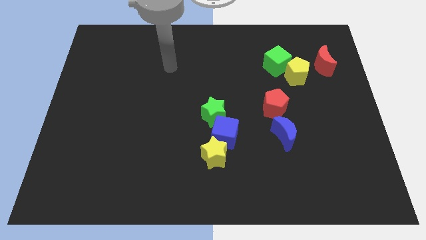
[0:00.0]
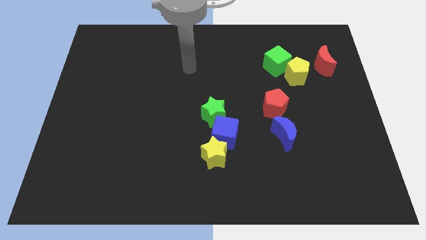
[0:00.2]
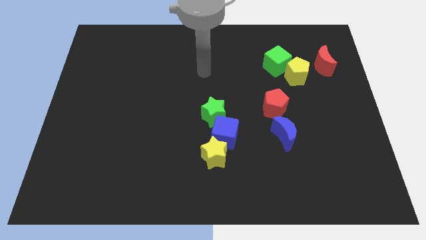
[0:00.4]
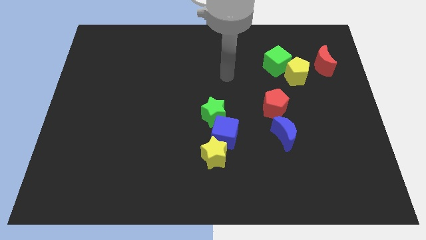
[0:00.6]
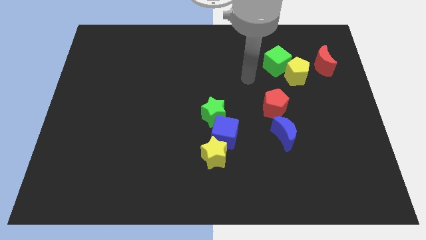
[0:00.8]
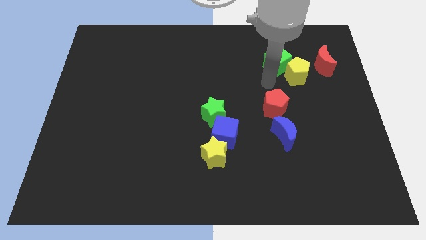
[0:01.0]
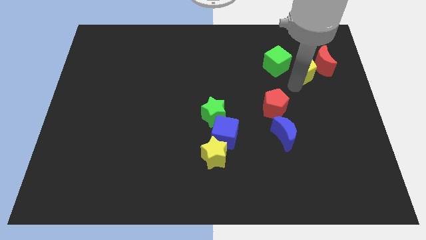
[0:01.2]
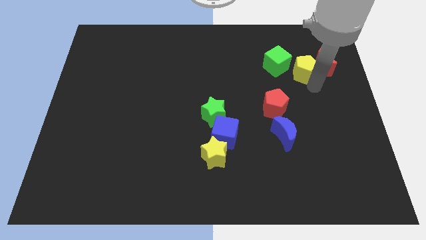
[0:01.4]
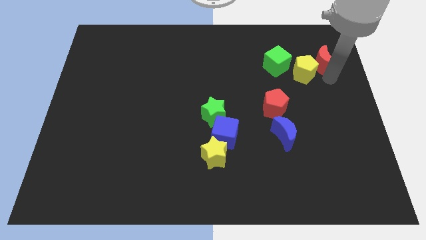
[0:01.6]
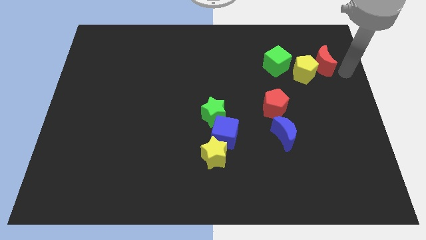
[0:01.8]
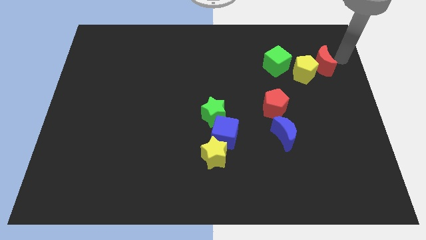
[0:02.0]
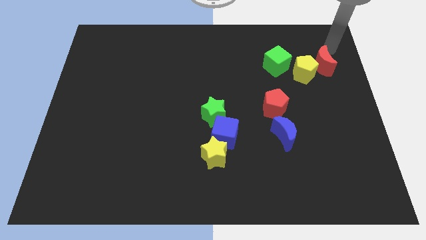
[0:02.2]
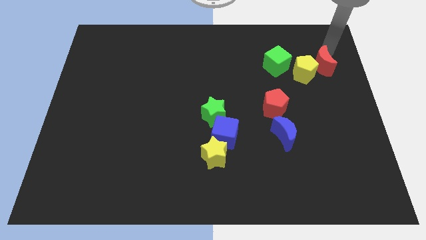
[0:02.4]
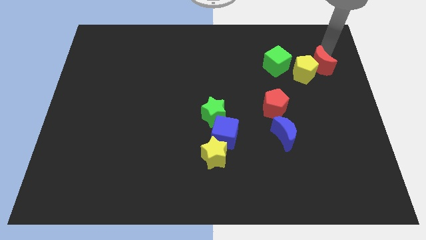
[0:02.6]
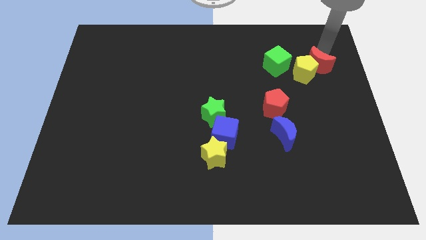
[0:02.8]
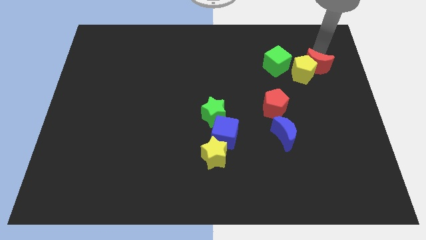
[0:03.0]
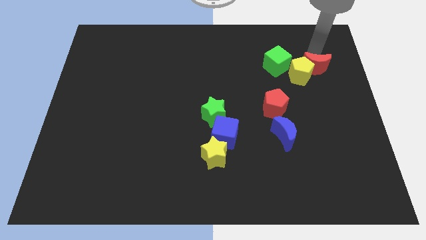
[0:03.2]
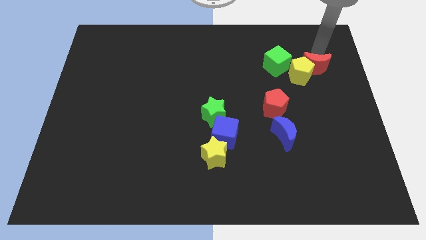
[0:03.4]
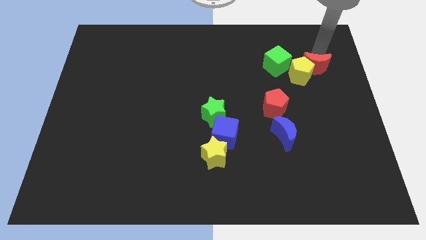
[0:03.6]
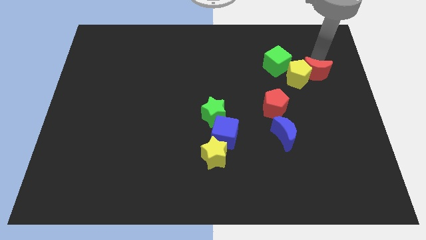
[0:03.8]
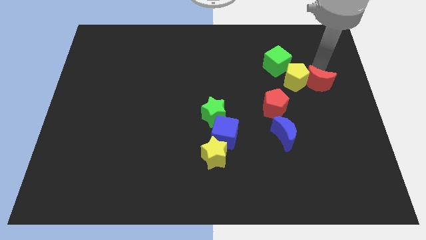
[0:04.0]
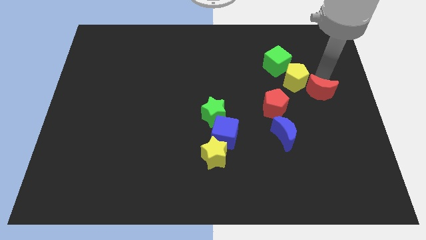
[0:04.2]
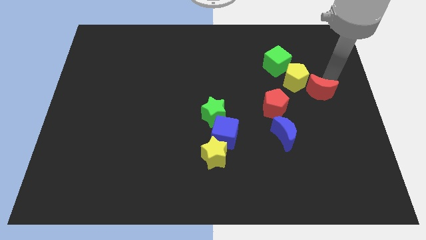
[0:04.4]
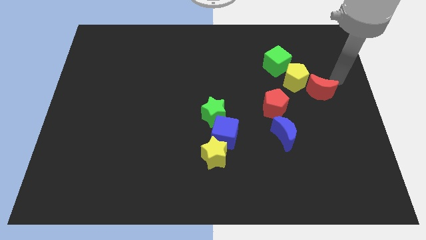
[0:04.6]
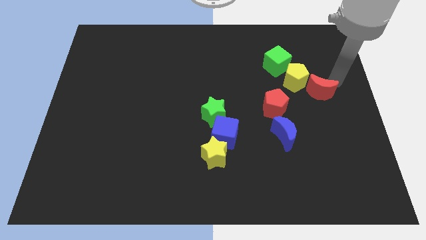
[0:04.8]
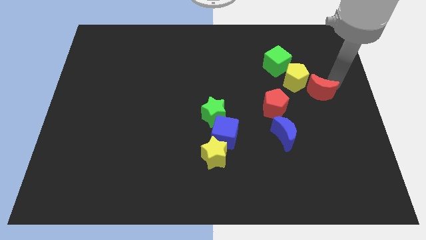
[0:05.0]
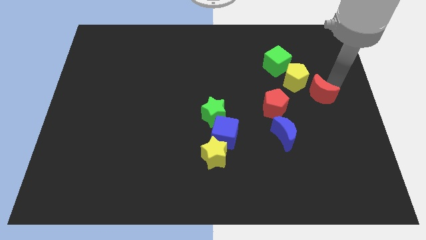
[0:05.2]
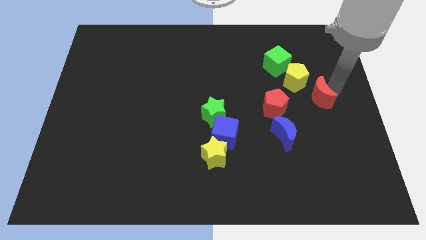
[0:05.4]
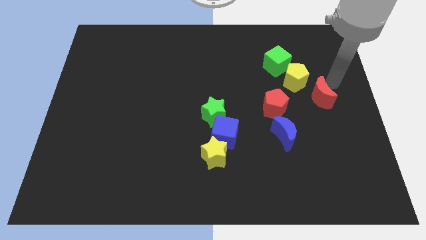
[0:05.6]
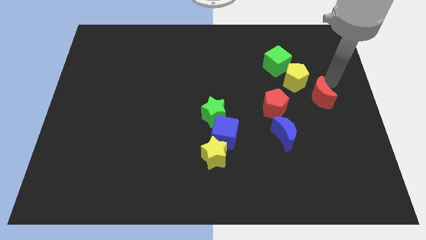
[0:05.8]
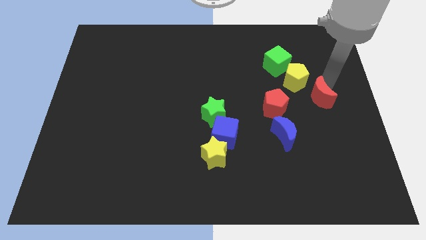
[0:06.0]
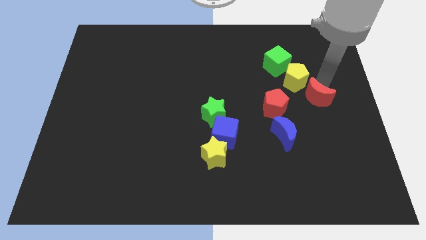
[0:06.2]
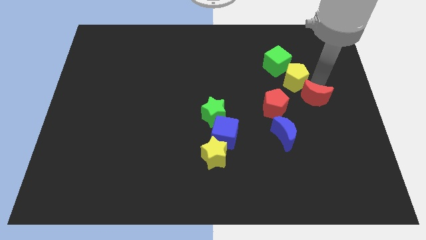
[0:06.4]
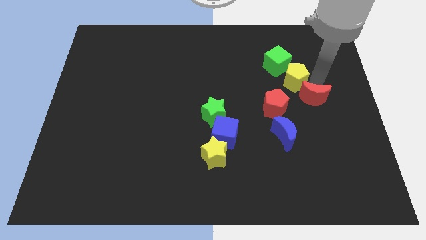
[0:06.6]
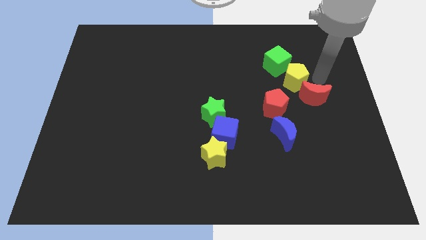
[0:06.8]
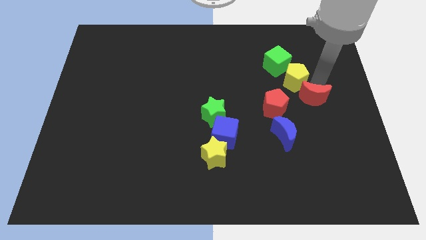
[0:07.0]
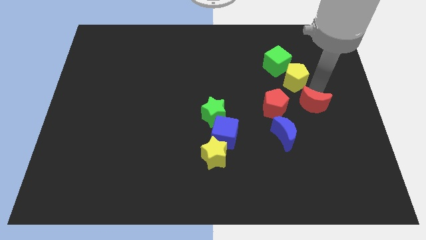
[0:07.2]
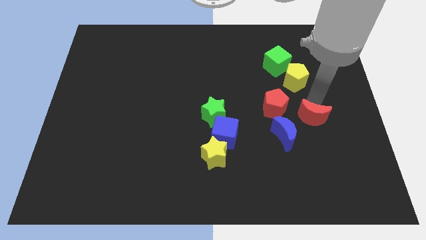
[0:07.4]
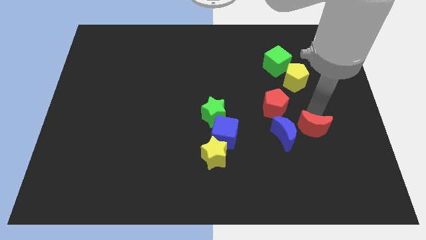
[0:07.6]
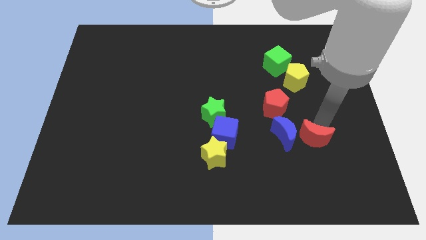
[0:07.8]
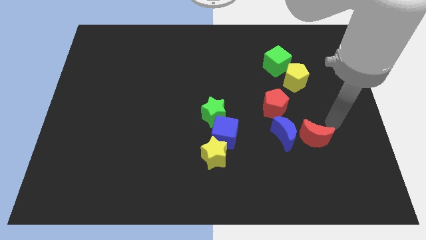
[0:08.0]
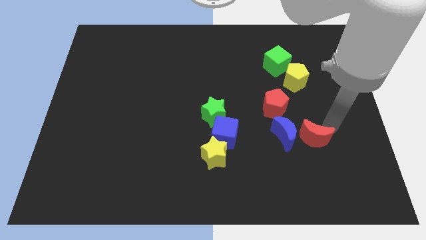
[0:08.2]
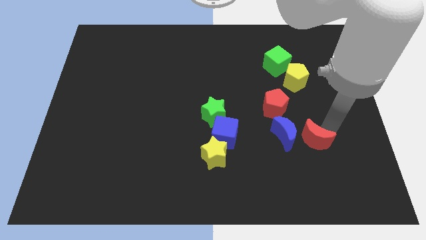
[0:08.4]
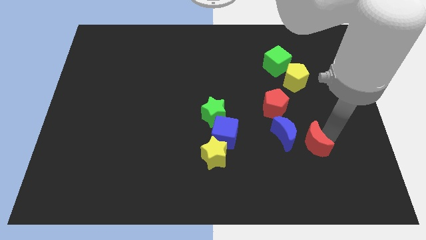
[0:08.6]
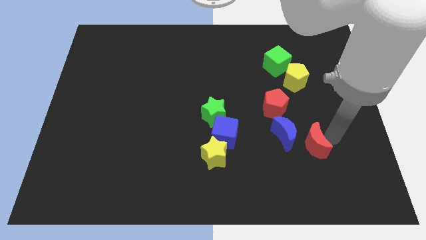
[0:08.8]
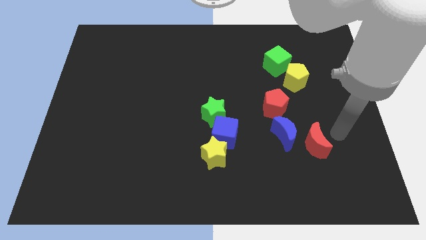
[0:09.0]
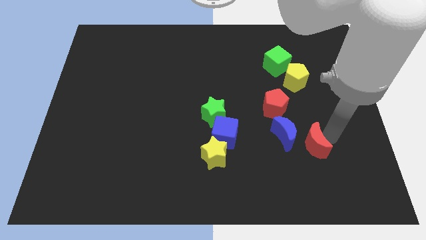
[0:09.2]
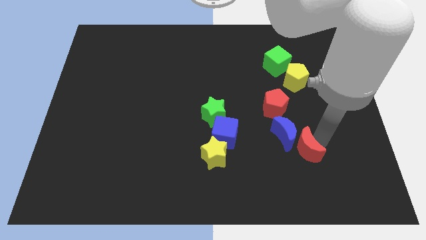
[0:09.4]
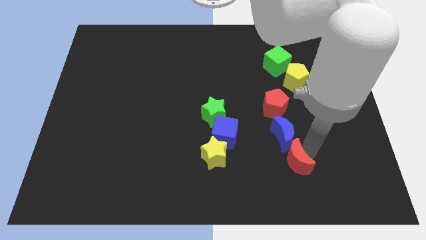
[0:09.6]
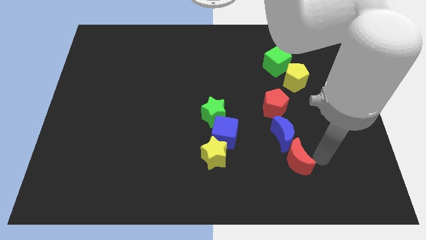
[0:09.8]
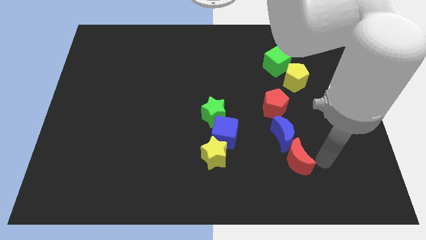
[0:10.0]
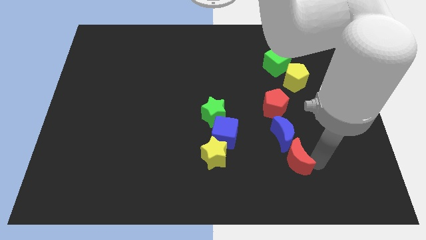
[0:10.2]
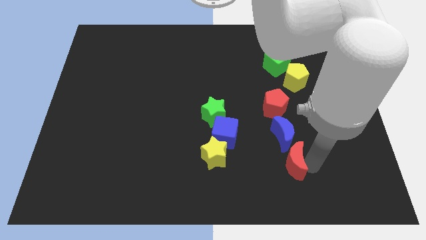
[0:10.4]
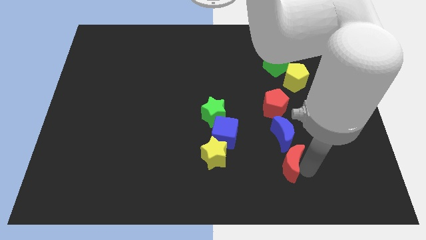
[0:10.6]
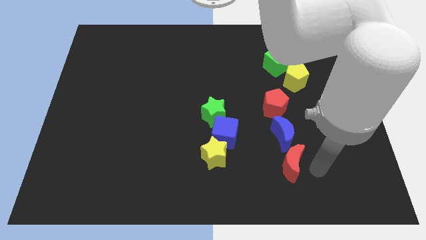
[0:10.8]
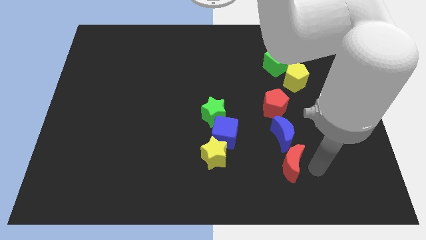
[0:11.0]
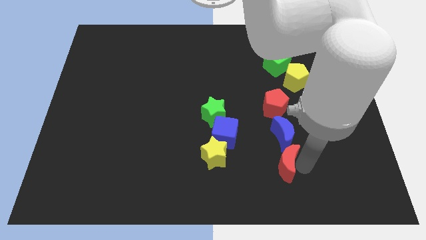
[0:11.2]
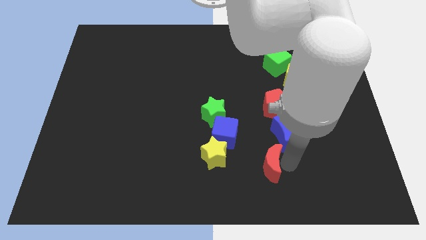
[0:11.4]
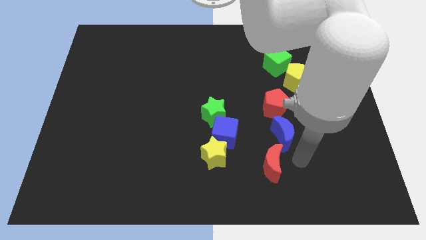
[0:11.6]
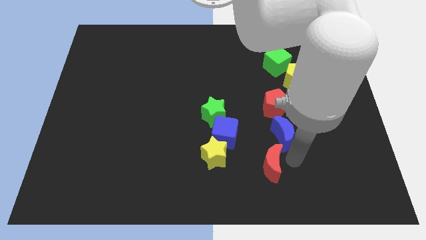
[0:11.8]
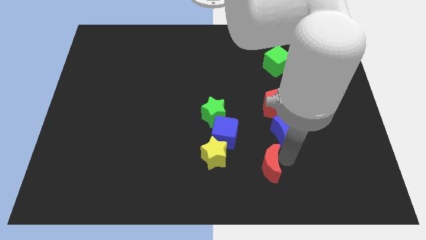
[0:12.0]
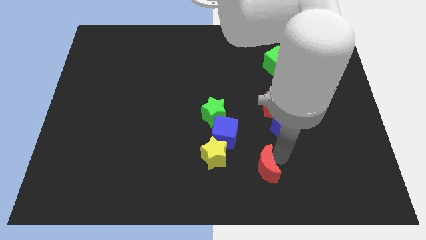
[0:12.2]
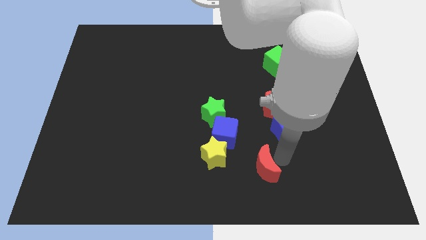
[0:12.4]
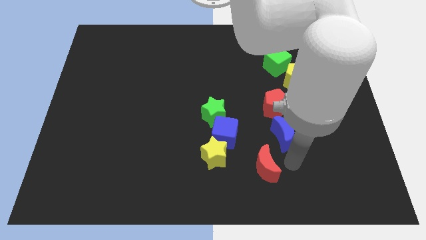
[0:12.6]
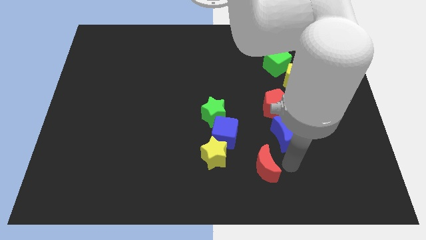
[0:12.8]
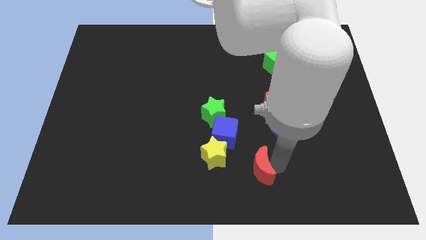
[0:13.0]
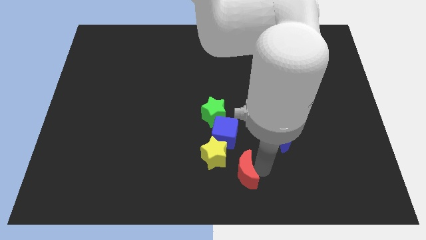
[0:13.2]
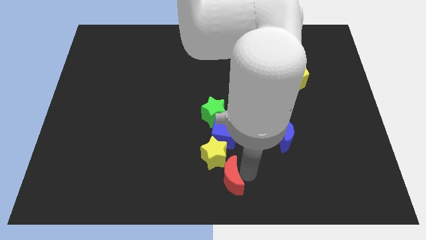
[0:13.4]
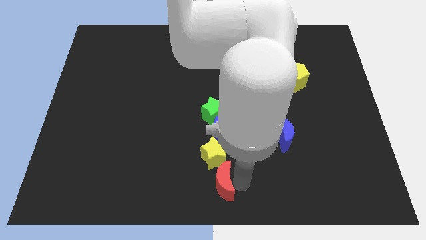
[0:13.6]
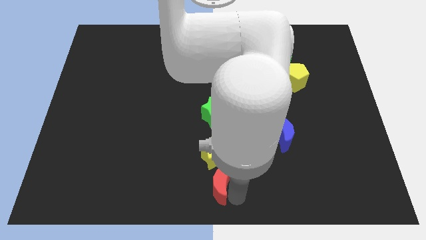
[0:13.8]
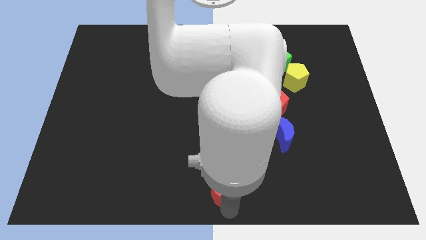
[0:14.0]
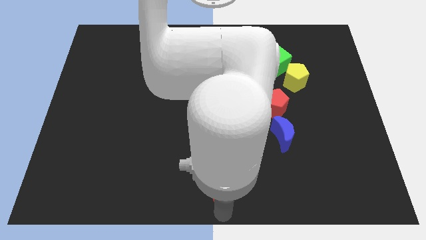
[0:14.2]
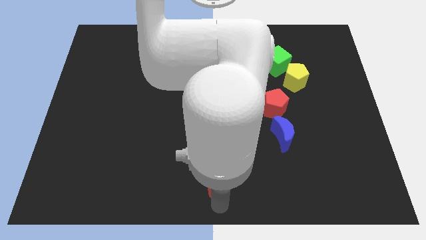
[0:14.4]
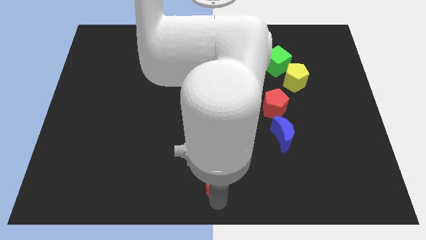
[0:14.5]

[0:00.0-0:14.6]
move the red moon below the green star
